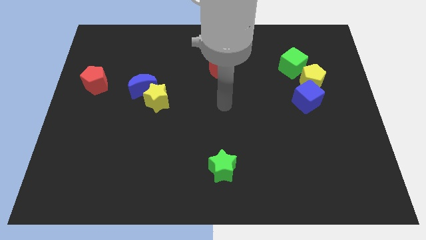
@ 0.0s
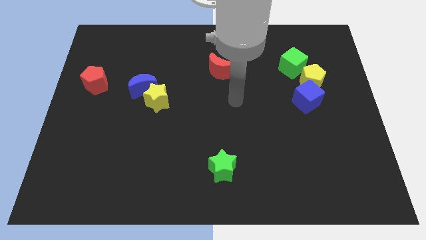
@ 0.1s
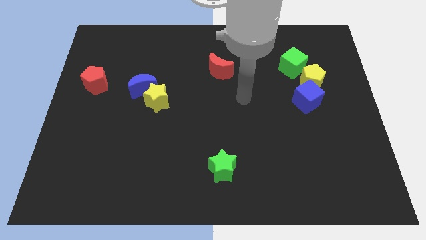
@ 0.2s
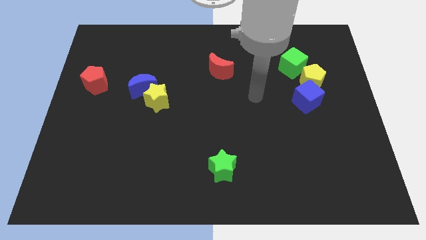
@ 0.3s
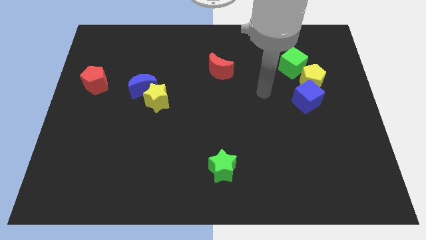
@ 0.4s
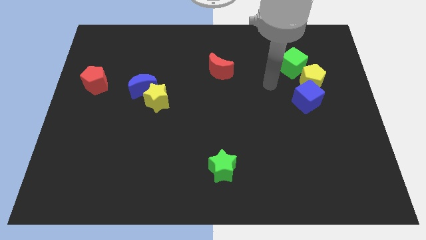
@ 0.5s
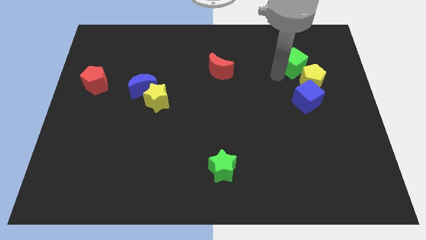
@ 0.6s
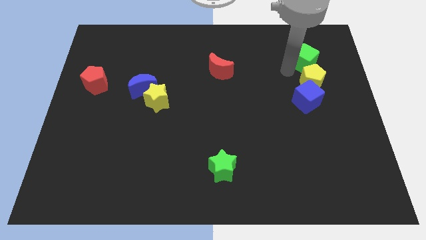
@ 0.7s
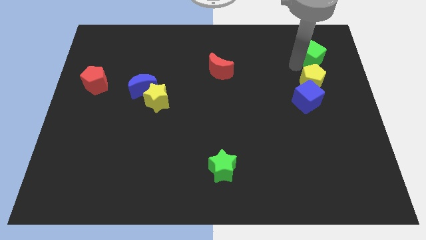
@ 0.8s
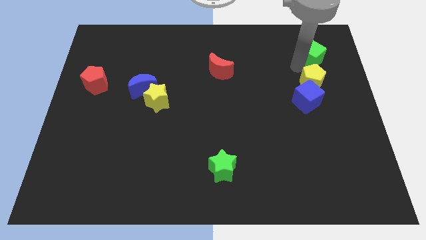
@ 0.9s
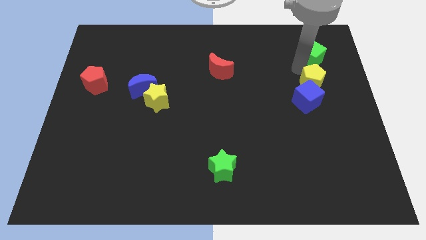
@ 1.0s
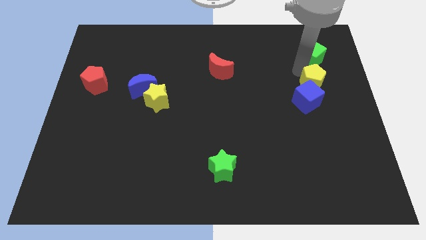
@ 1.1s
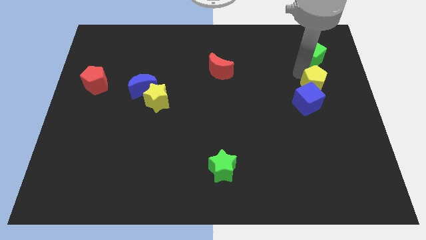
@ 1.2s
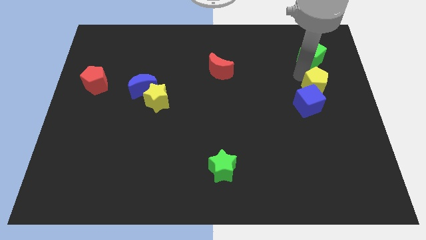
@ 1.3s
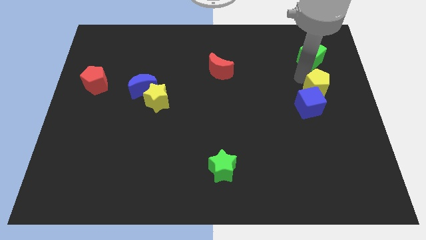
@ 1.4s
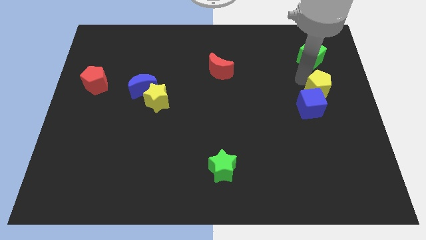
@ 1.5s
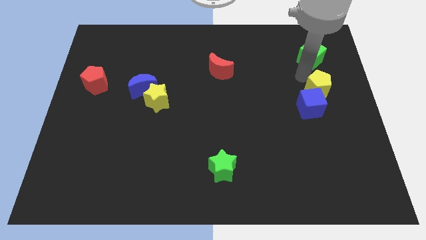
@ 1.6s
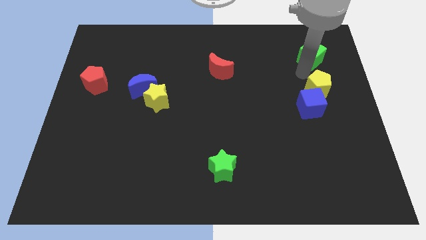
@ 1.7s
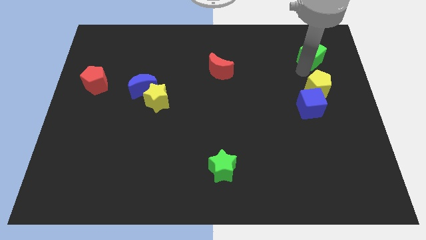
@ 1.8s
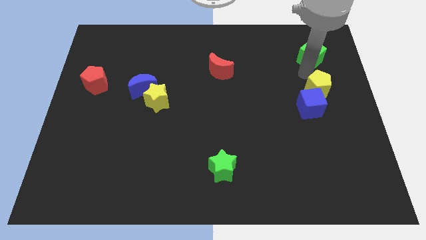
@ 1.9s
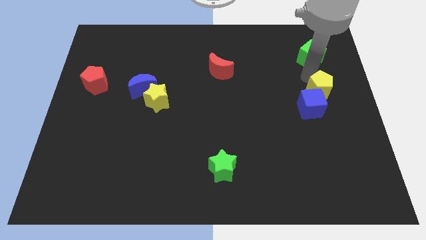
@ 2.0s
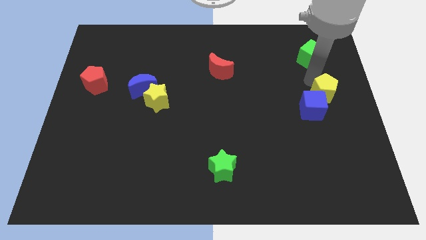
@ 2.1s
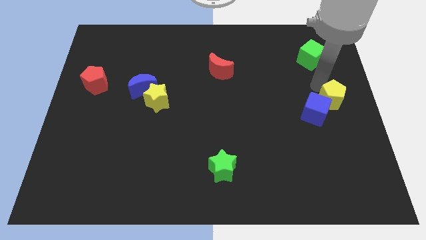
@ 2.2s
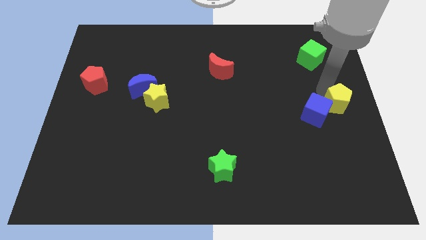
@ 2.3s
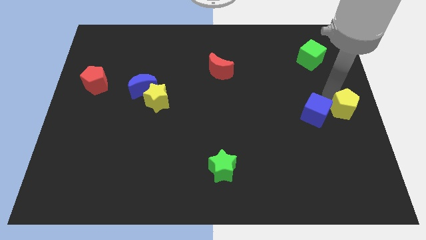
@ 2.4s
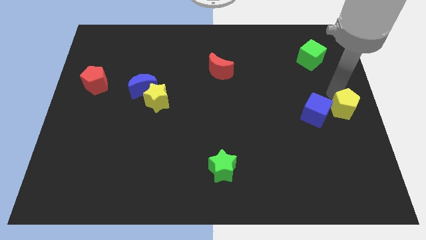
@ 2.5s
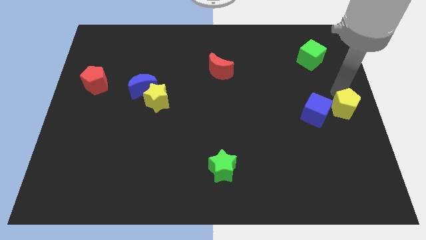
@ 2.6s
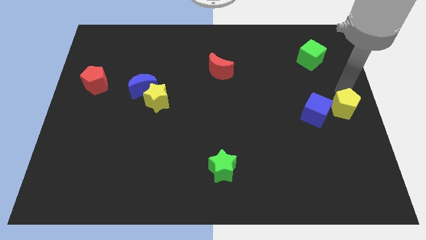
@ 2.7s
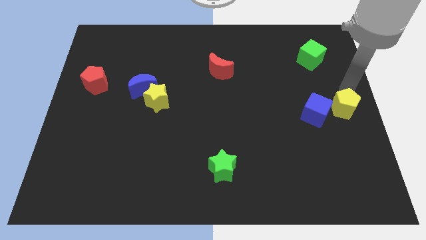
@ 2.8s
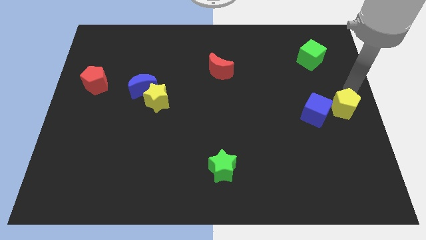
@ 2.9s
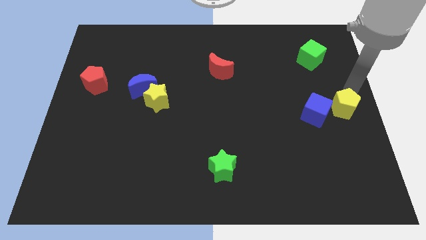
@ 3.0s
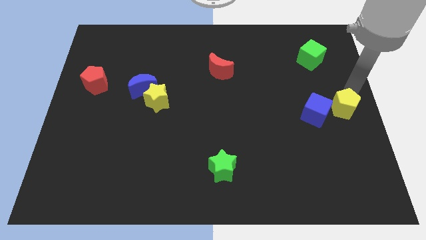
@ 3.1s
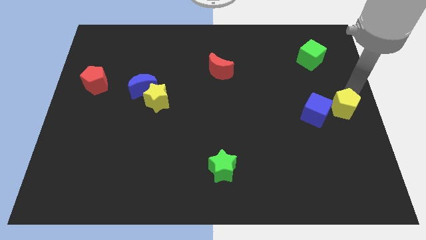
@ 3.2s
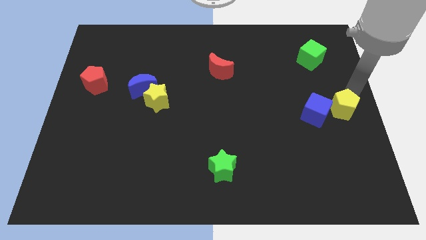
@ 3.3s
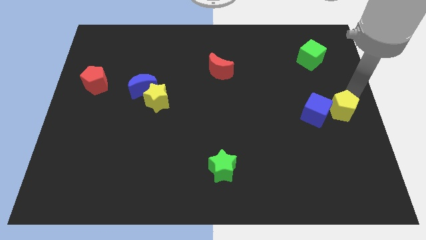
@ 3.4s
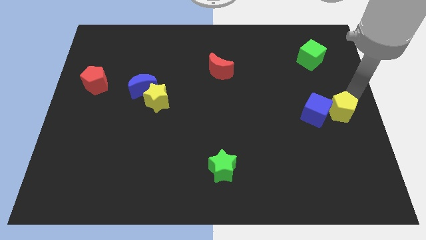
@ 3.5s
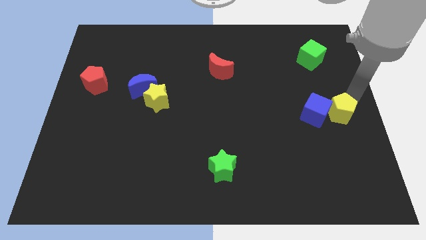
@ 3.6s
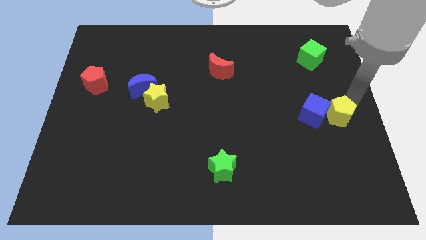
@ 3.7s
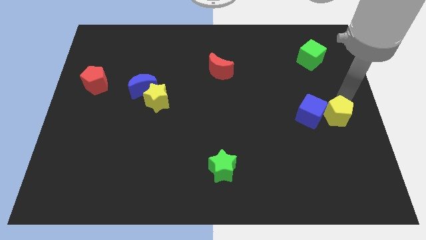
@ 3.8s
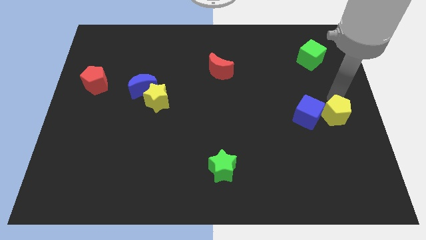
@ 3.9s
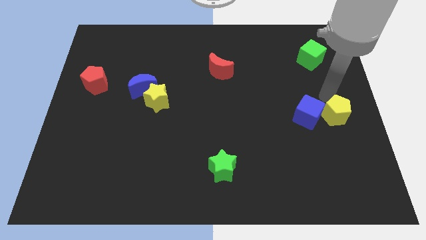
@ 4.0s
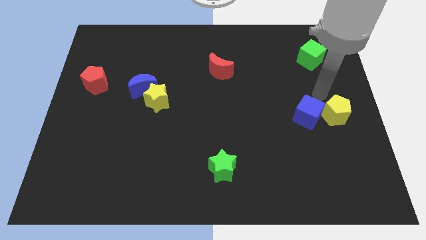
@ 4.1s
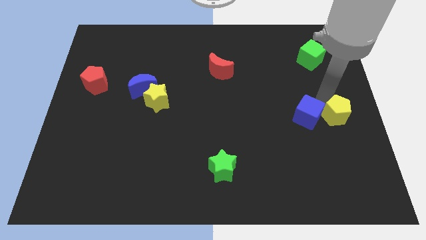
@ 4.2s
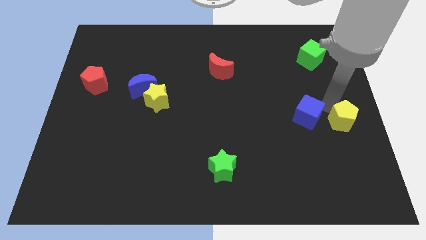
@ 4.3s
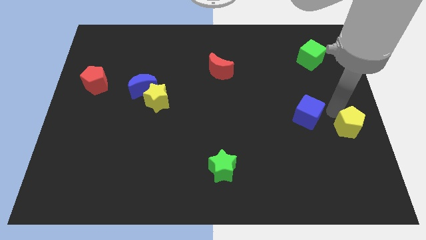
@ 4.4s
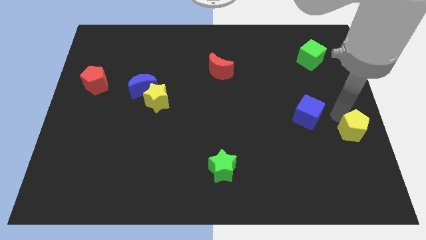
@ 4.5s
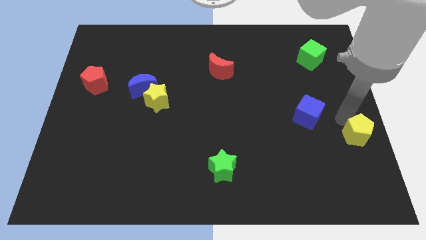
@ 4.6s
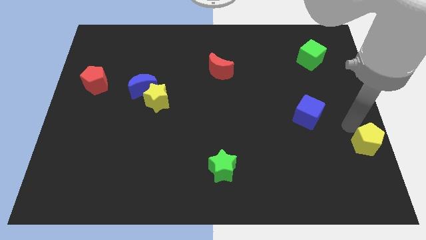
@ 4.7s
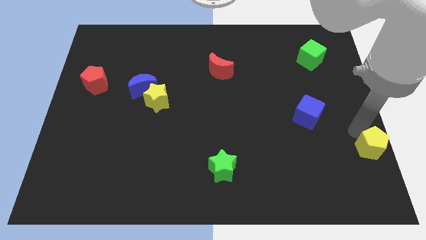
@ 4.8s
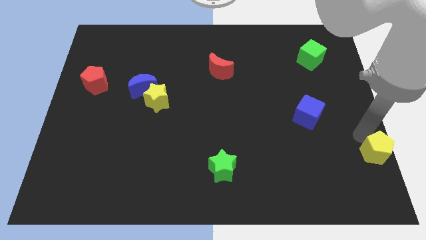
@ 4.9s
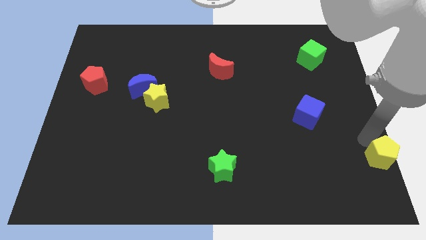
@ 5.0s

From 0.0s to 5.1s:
put the yellow pentagon to the lower right corner

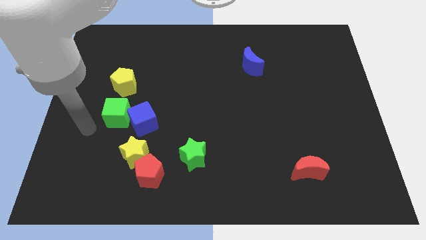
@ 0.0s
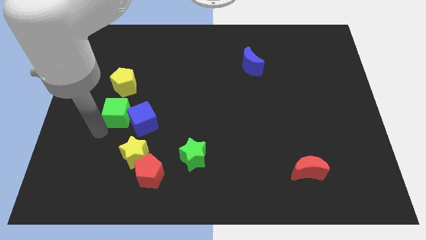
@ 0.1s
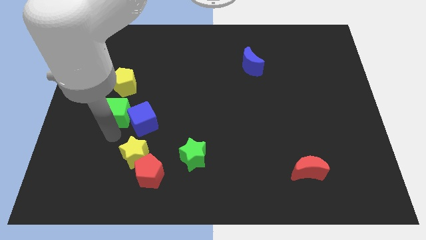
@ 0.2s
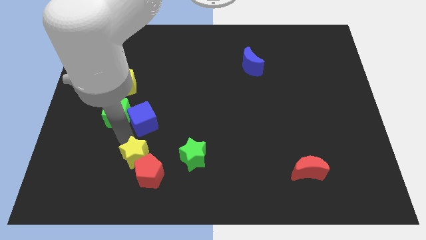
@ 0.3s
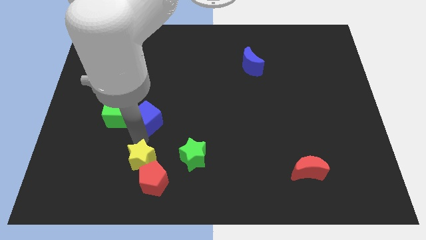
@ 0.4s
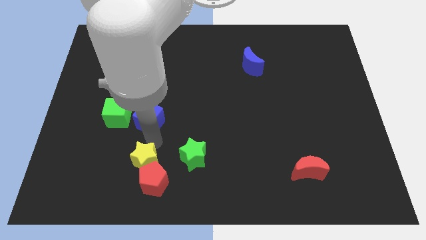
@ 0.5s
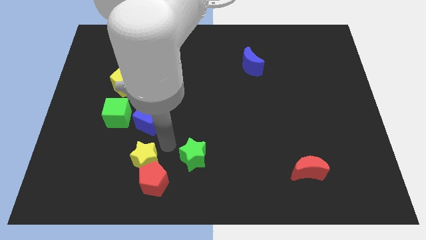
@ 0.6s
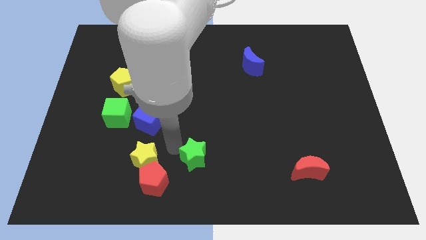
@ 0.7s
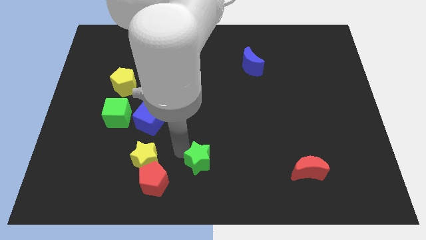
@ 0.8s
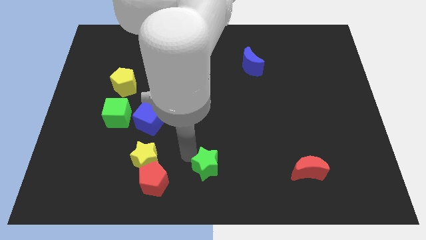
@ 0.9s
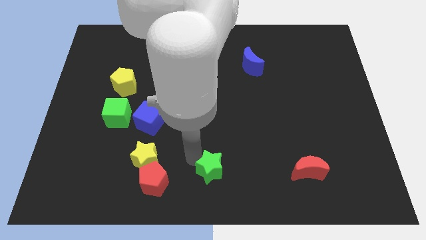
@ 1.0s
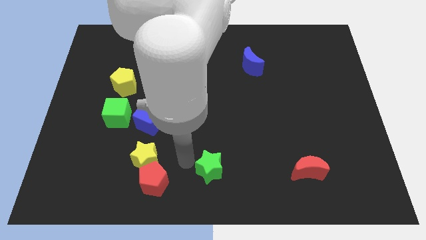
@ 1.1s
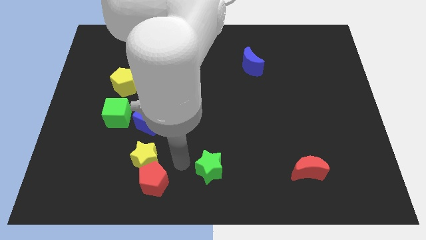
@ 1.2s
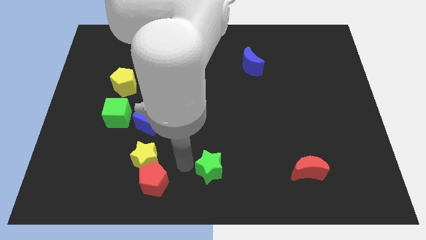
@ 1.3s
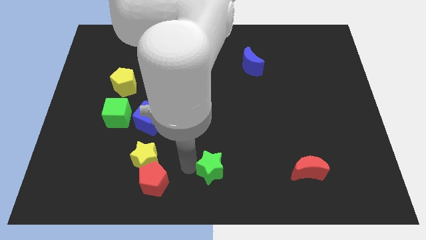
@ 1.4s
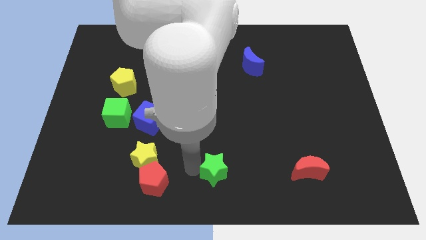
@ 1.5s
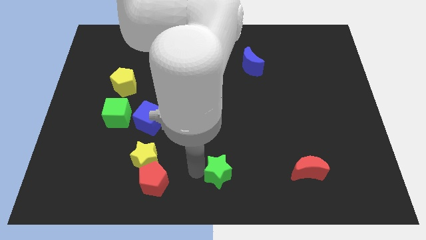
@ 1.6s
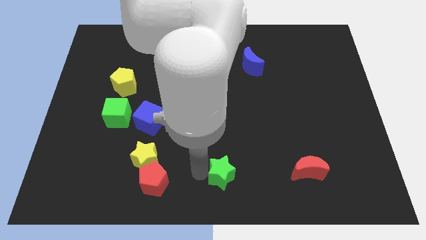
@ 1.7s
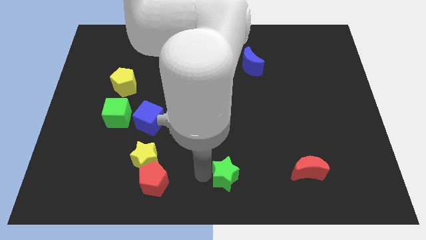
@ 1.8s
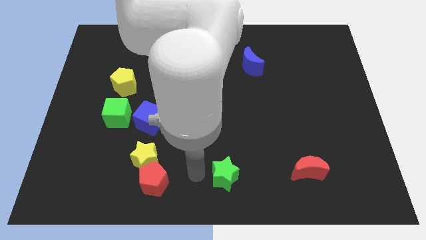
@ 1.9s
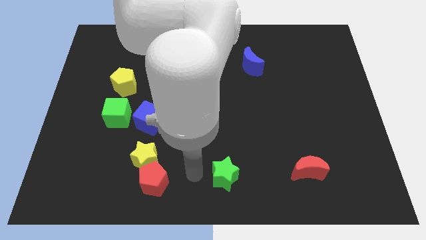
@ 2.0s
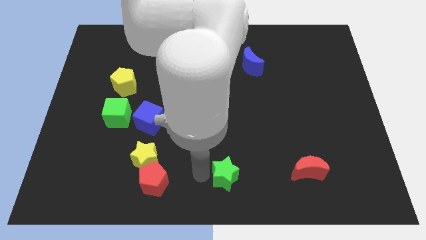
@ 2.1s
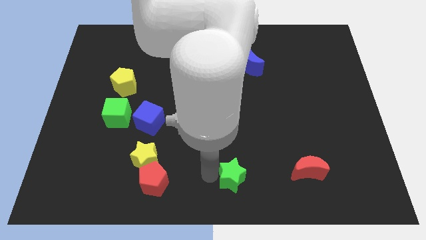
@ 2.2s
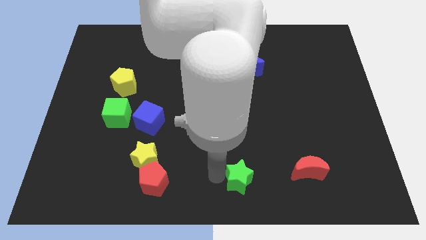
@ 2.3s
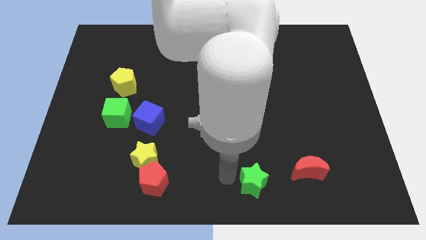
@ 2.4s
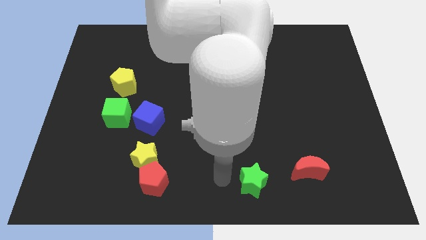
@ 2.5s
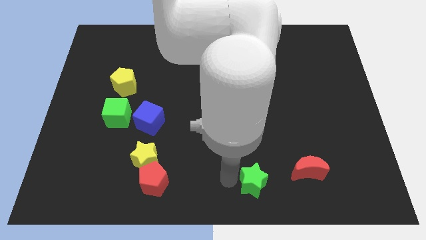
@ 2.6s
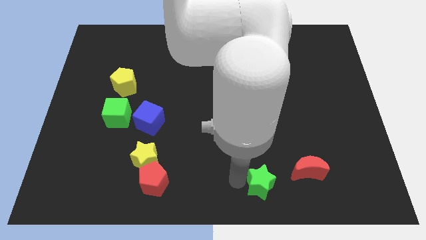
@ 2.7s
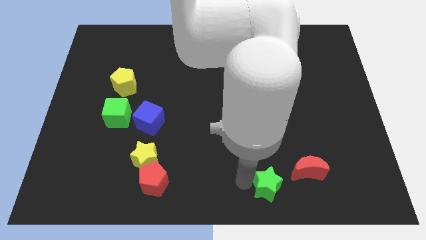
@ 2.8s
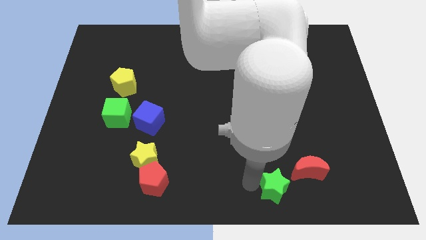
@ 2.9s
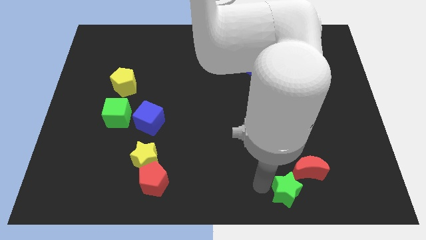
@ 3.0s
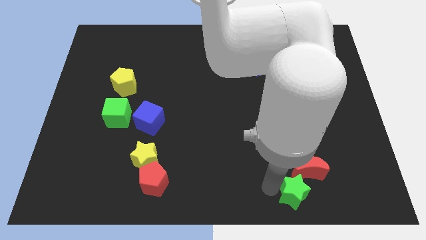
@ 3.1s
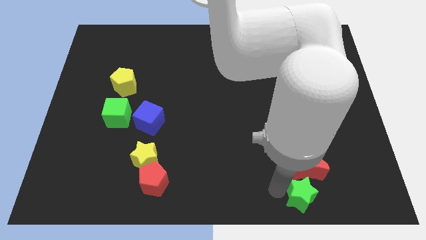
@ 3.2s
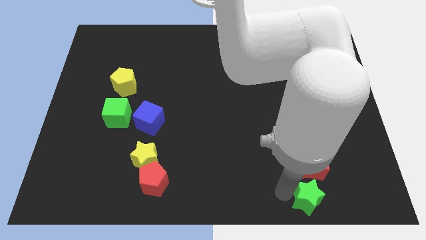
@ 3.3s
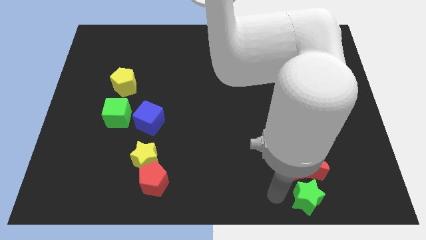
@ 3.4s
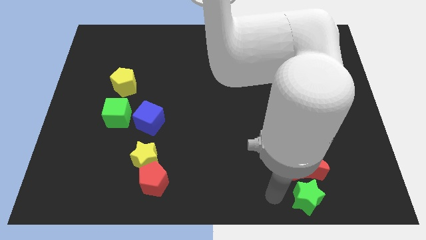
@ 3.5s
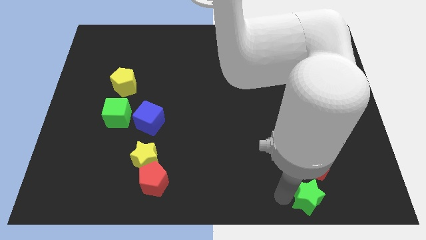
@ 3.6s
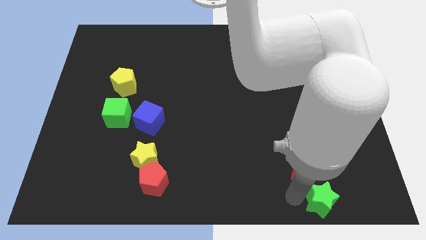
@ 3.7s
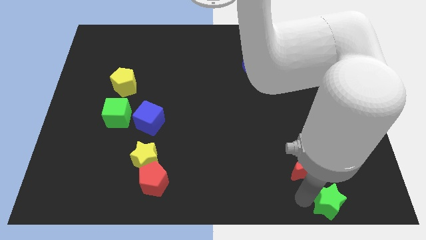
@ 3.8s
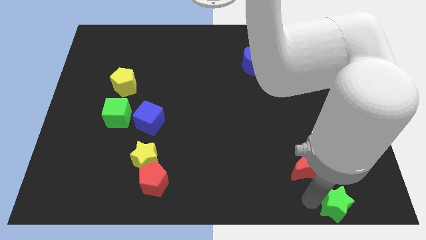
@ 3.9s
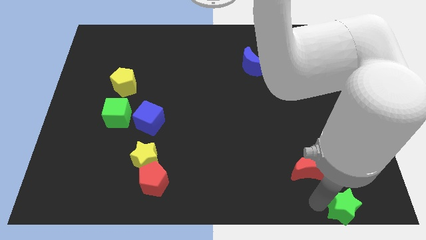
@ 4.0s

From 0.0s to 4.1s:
push the green star to the bottom right of the board
